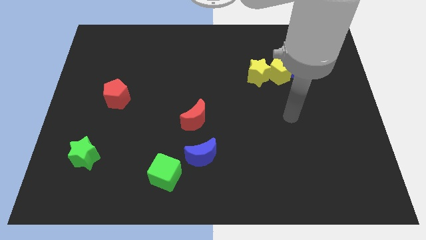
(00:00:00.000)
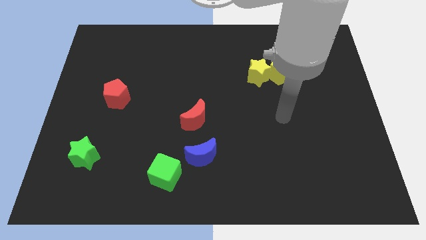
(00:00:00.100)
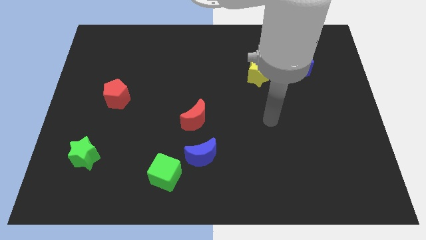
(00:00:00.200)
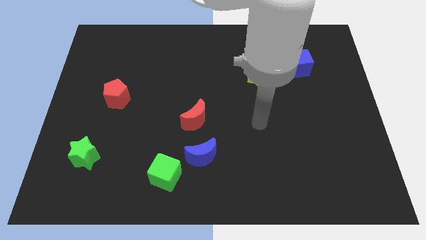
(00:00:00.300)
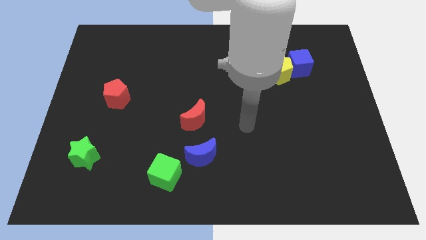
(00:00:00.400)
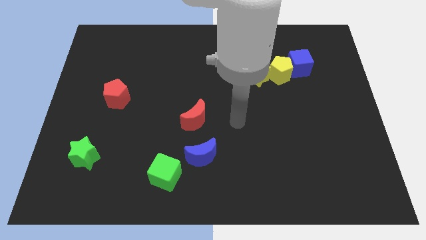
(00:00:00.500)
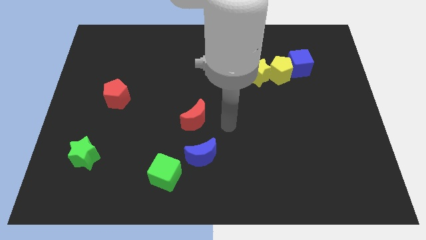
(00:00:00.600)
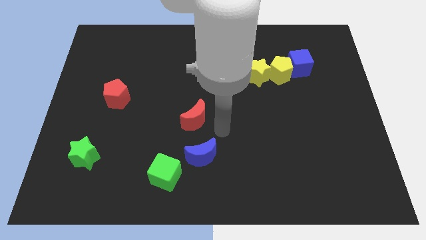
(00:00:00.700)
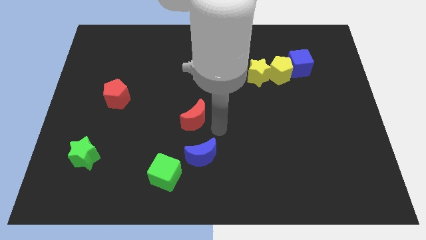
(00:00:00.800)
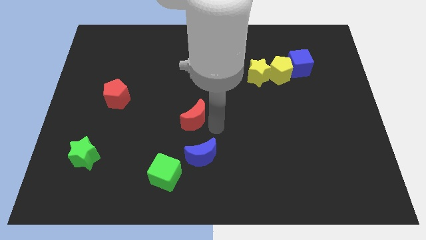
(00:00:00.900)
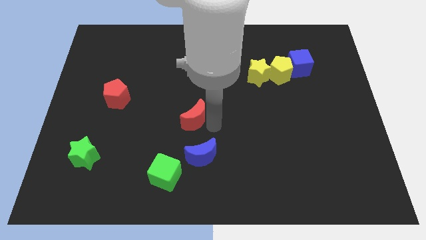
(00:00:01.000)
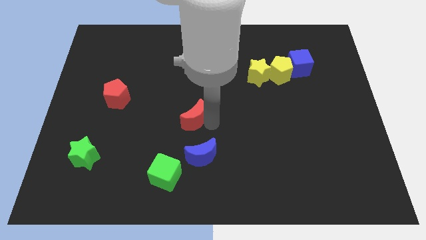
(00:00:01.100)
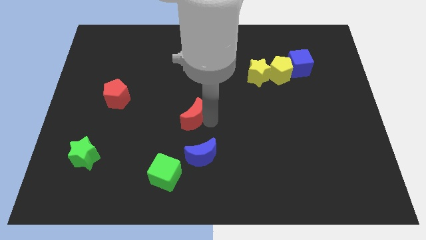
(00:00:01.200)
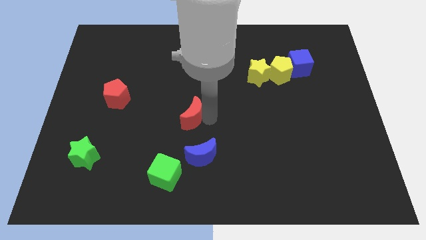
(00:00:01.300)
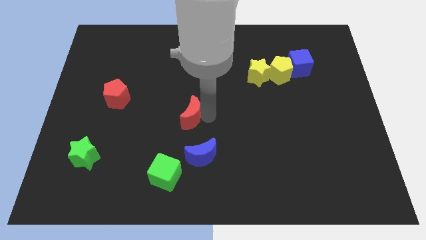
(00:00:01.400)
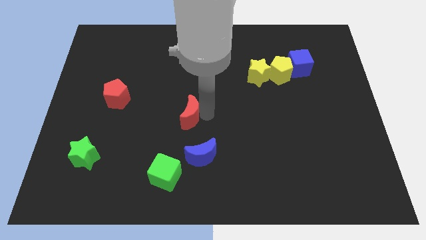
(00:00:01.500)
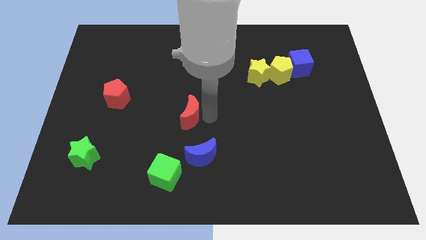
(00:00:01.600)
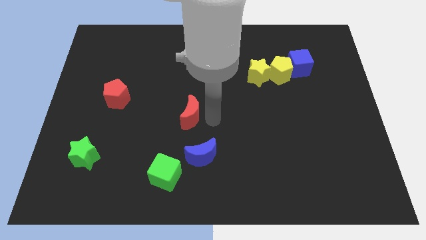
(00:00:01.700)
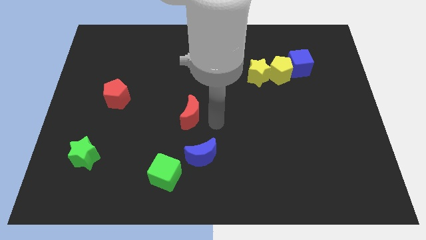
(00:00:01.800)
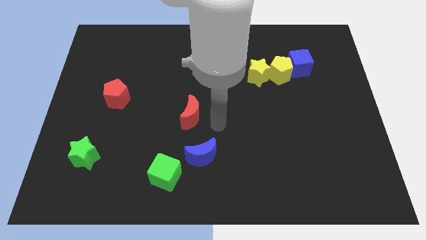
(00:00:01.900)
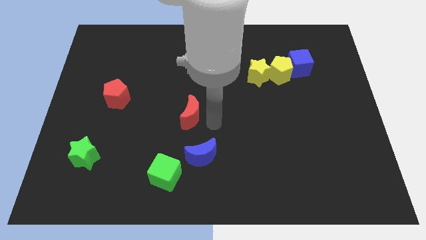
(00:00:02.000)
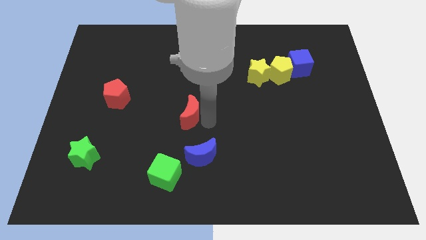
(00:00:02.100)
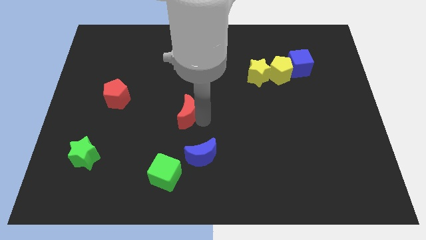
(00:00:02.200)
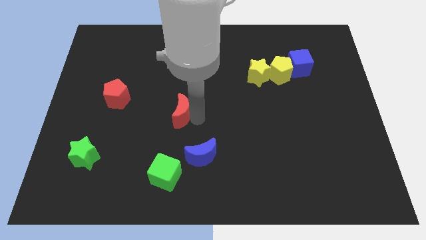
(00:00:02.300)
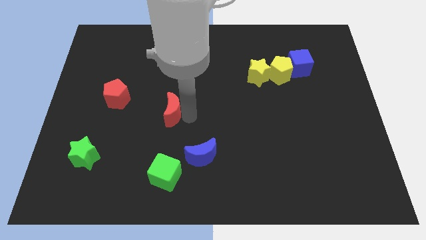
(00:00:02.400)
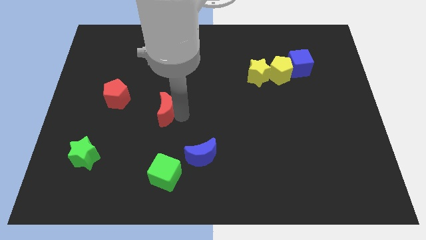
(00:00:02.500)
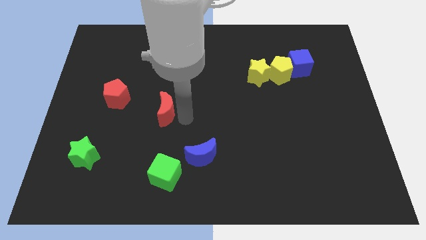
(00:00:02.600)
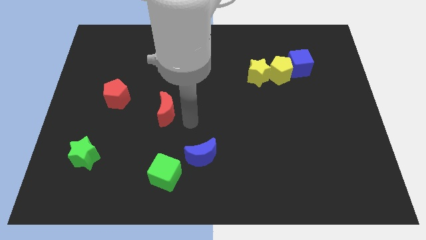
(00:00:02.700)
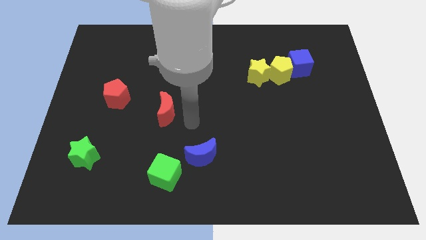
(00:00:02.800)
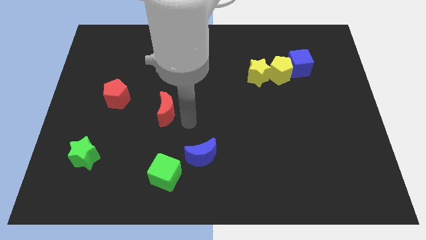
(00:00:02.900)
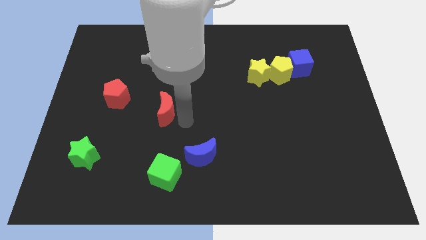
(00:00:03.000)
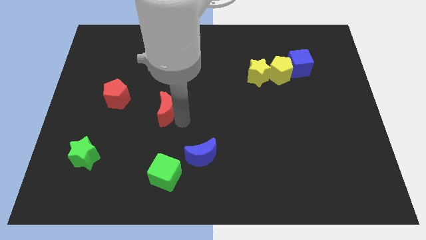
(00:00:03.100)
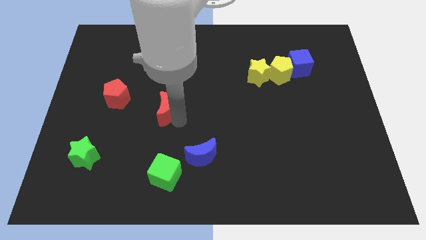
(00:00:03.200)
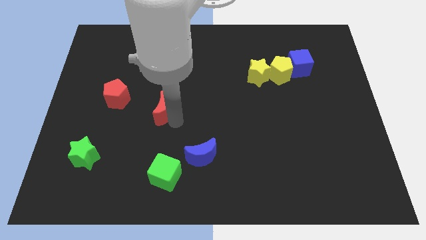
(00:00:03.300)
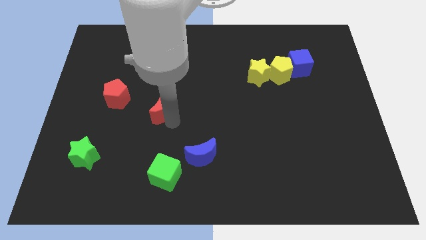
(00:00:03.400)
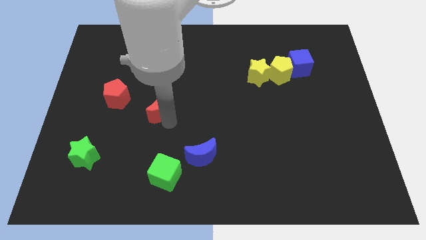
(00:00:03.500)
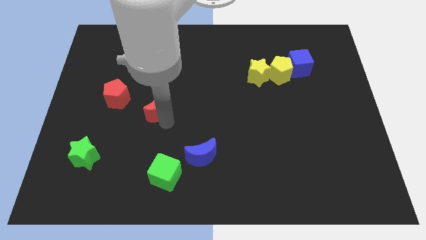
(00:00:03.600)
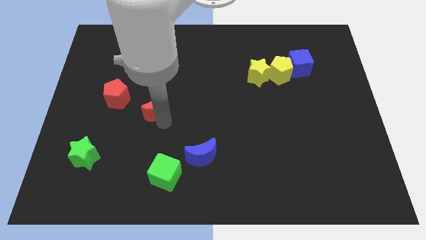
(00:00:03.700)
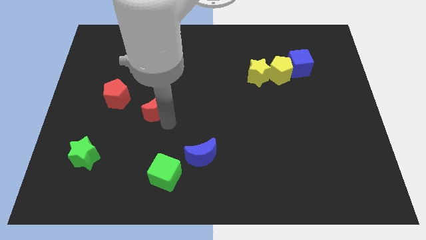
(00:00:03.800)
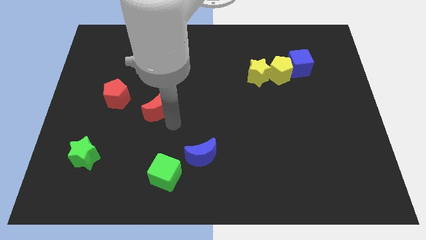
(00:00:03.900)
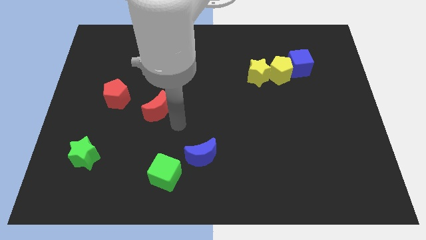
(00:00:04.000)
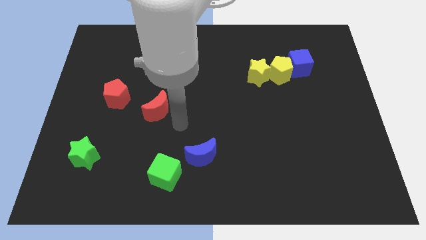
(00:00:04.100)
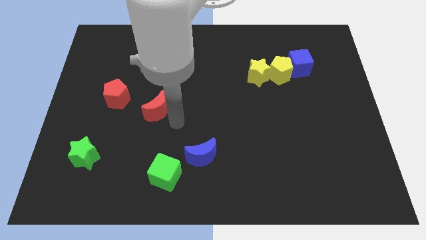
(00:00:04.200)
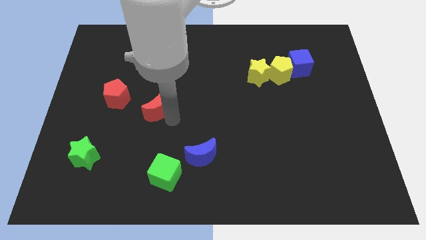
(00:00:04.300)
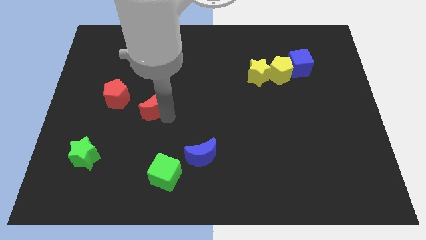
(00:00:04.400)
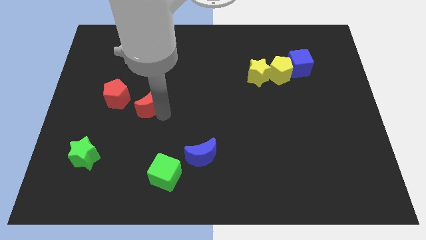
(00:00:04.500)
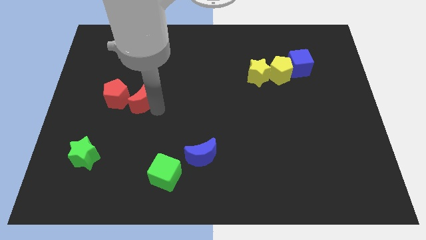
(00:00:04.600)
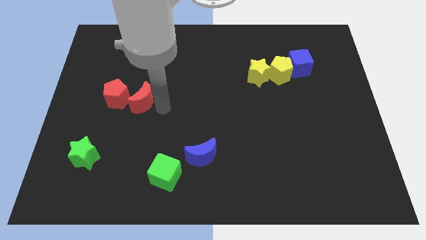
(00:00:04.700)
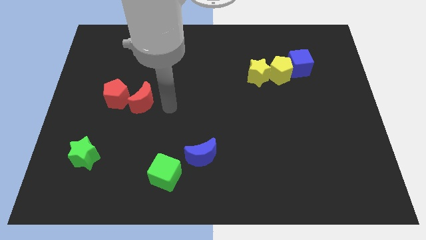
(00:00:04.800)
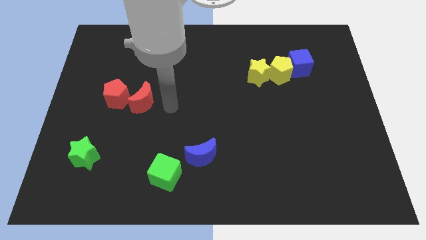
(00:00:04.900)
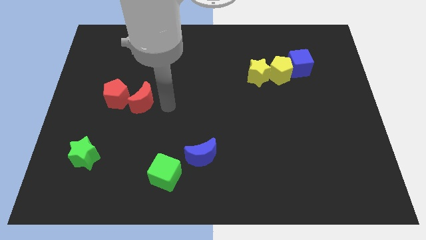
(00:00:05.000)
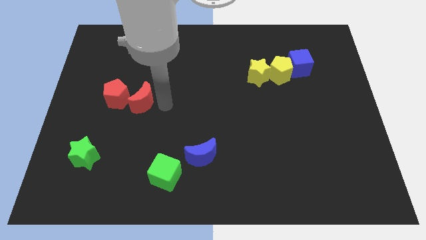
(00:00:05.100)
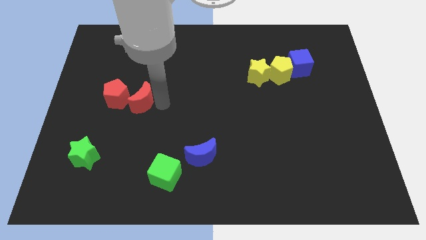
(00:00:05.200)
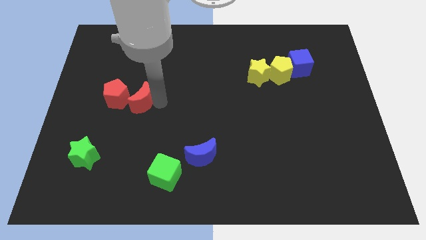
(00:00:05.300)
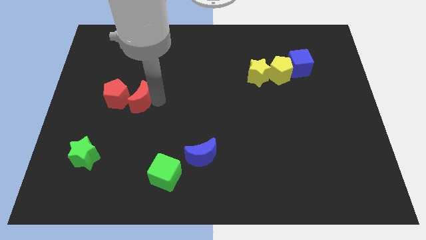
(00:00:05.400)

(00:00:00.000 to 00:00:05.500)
push the red moon next to the red pentagon

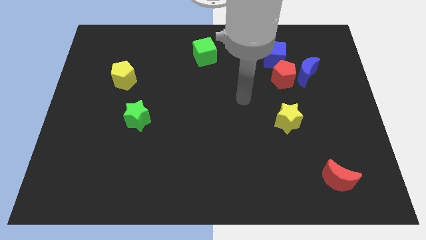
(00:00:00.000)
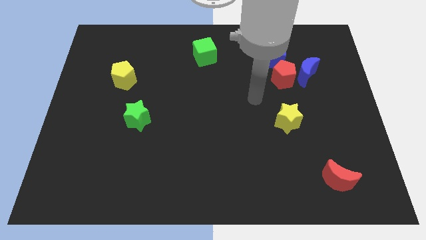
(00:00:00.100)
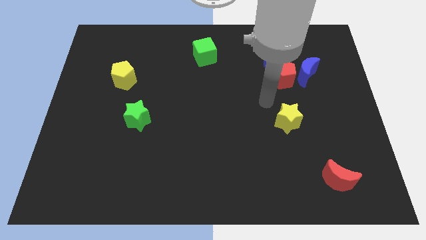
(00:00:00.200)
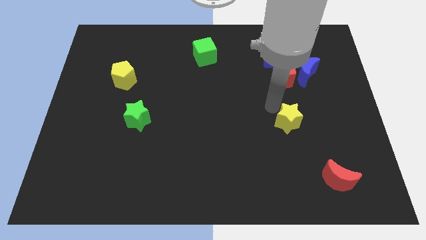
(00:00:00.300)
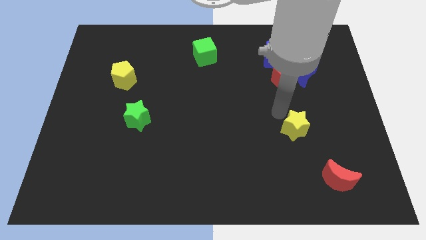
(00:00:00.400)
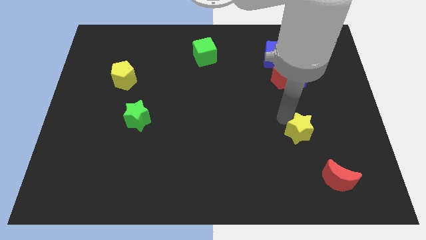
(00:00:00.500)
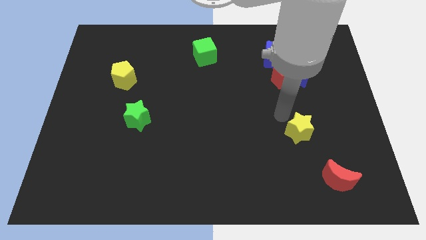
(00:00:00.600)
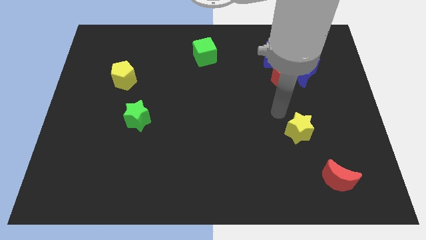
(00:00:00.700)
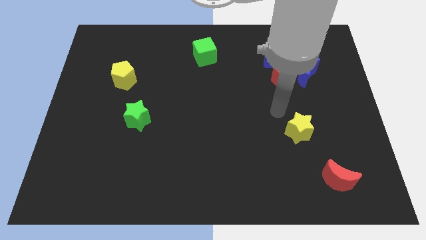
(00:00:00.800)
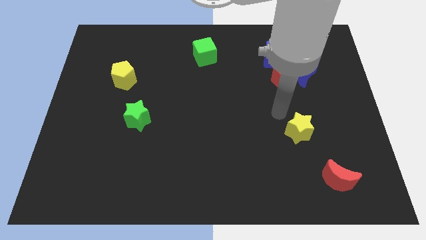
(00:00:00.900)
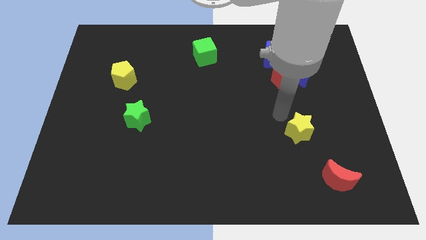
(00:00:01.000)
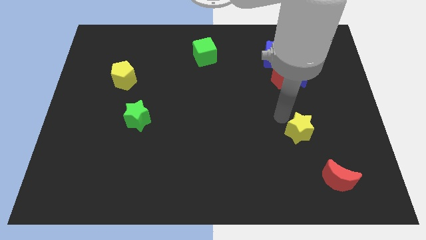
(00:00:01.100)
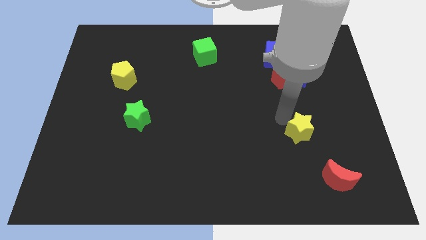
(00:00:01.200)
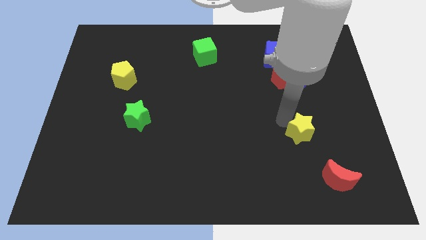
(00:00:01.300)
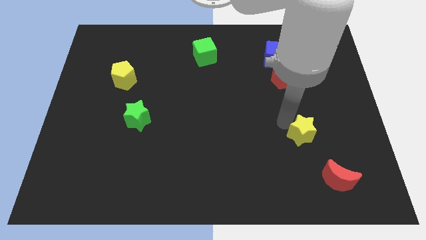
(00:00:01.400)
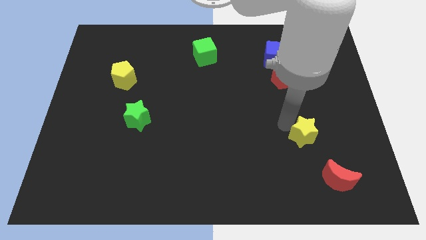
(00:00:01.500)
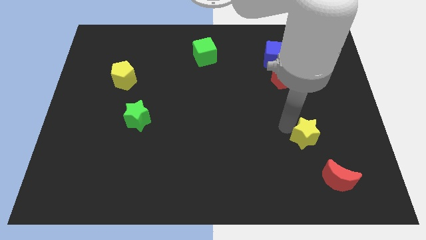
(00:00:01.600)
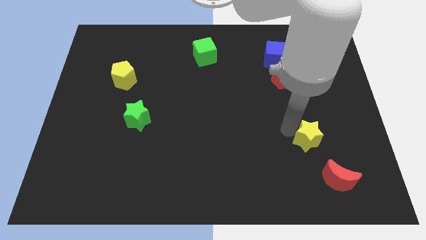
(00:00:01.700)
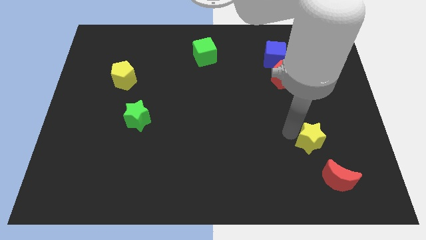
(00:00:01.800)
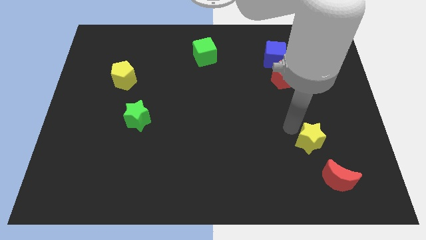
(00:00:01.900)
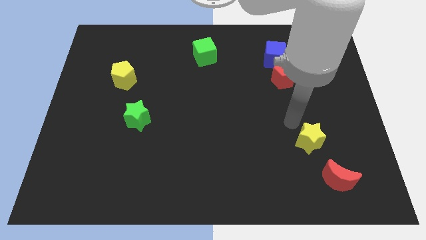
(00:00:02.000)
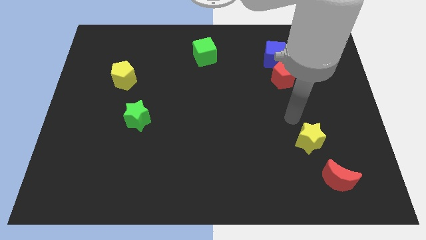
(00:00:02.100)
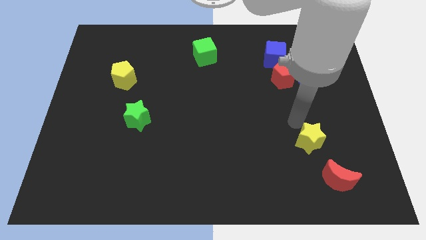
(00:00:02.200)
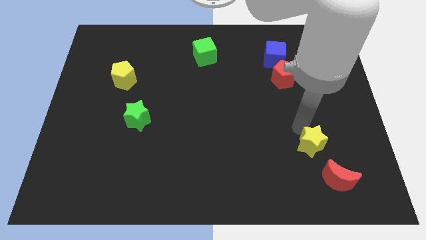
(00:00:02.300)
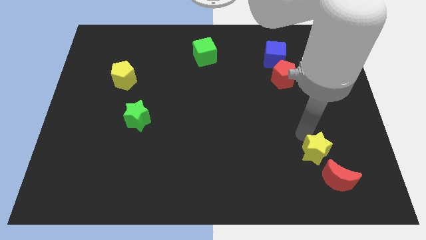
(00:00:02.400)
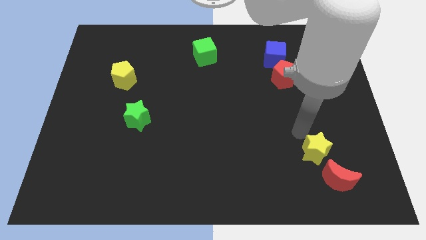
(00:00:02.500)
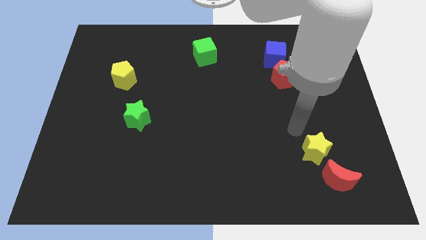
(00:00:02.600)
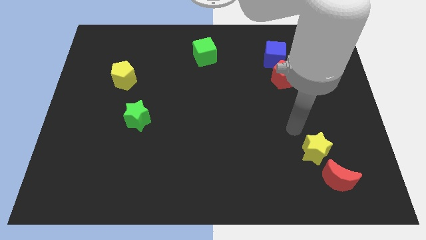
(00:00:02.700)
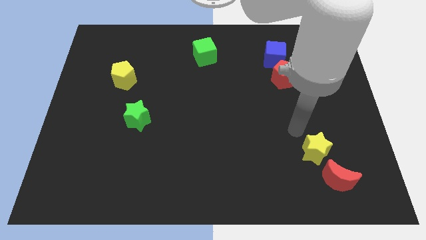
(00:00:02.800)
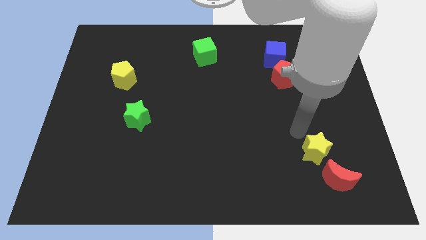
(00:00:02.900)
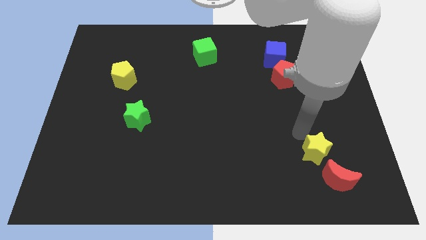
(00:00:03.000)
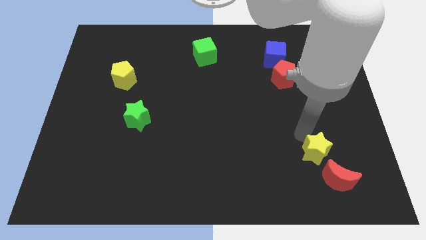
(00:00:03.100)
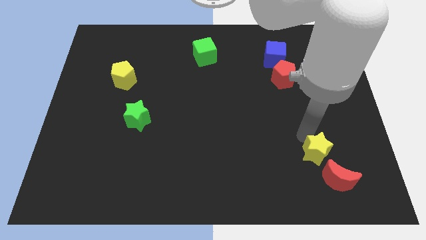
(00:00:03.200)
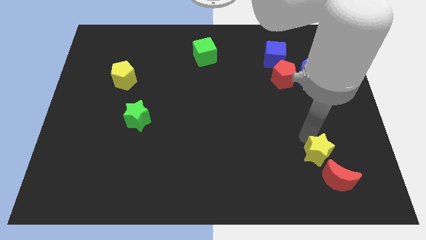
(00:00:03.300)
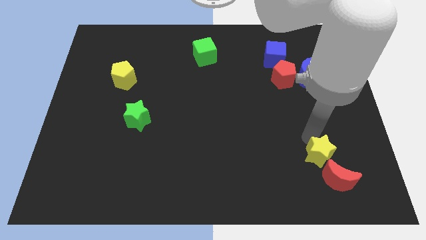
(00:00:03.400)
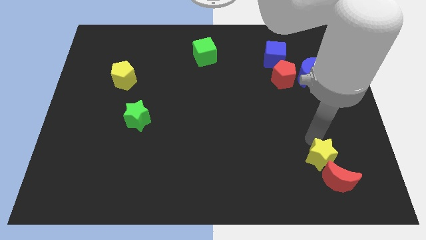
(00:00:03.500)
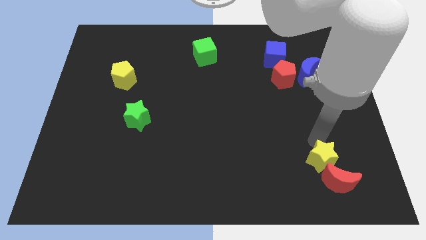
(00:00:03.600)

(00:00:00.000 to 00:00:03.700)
put the yellow star towards the red moon
